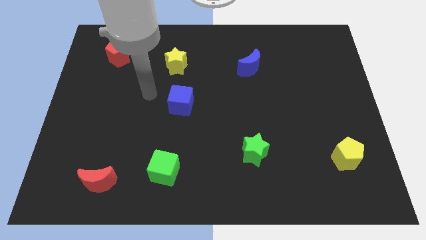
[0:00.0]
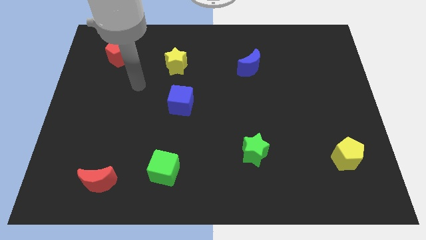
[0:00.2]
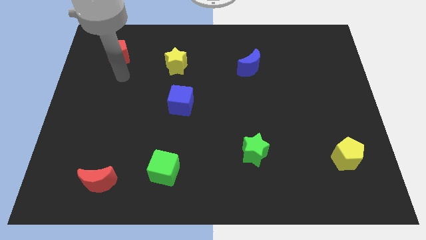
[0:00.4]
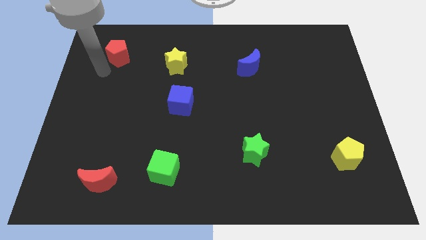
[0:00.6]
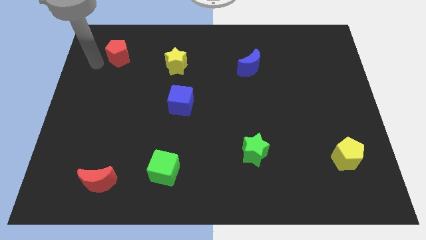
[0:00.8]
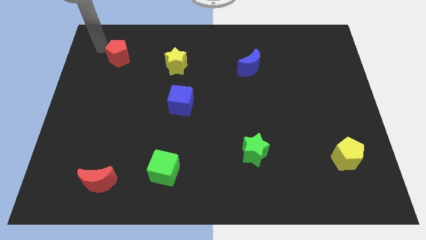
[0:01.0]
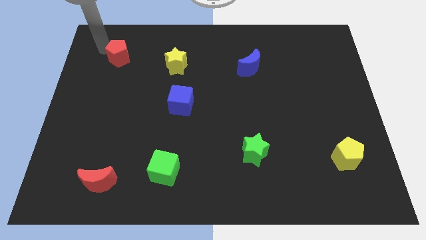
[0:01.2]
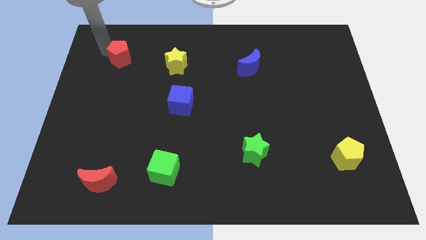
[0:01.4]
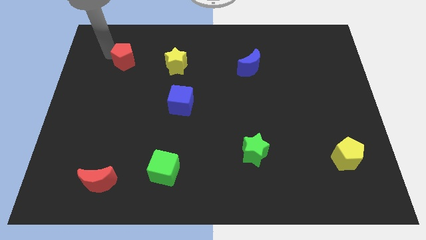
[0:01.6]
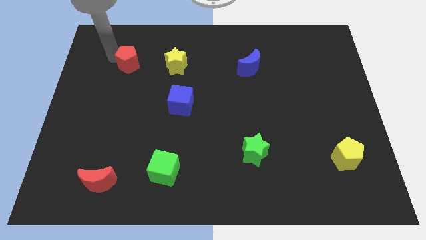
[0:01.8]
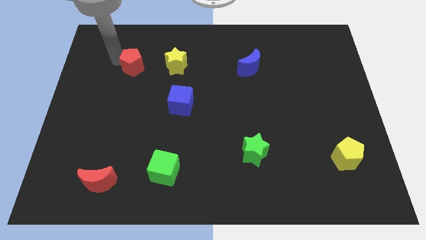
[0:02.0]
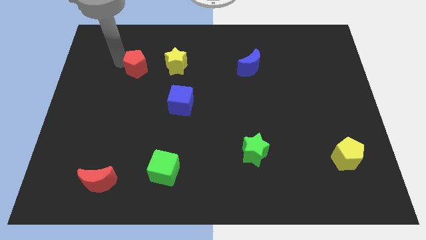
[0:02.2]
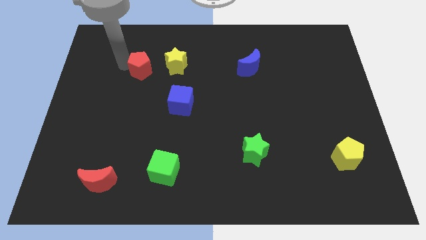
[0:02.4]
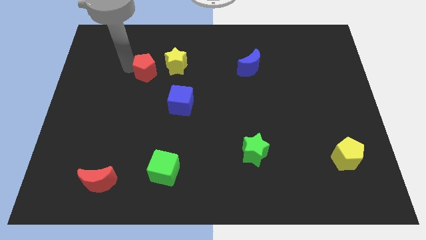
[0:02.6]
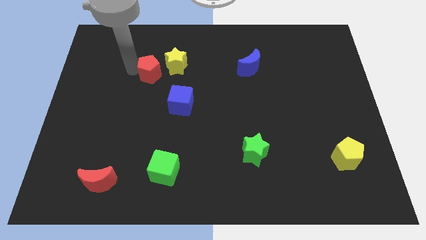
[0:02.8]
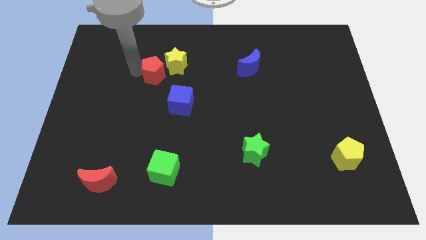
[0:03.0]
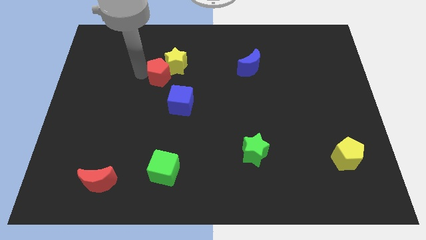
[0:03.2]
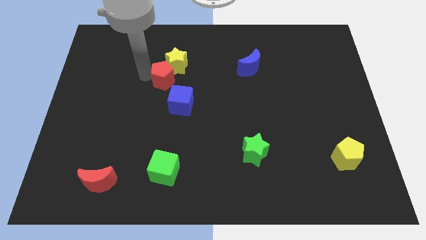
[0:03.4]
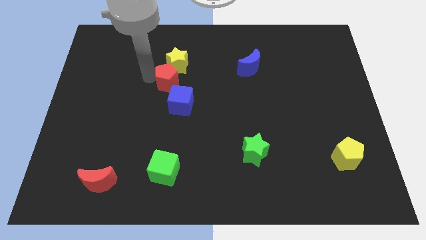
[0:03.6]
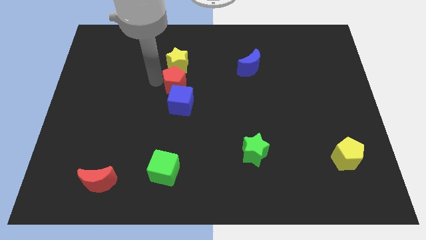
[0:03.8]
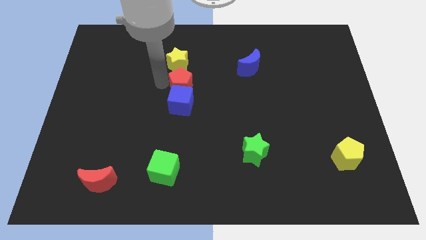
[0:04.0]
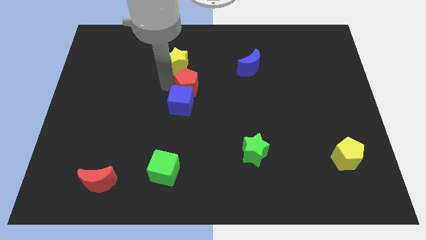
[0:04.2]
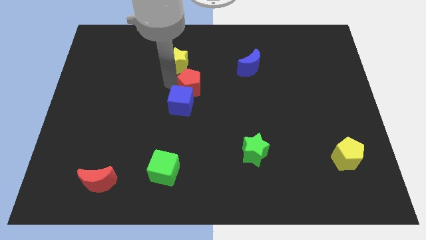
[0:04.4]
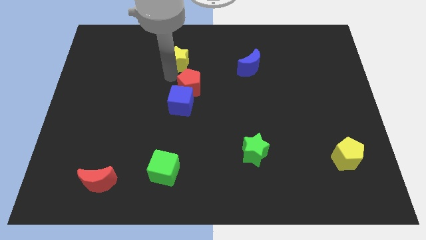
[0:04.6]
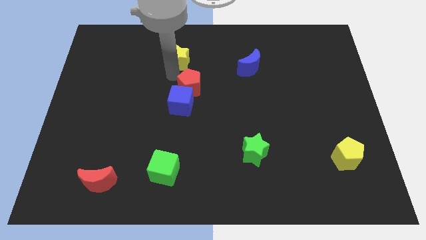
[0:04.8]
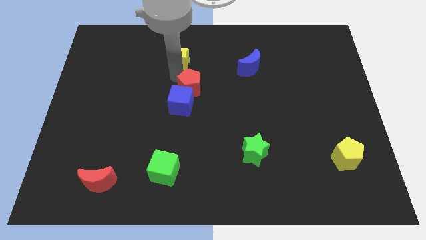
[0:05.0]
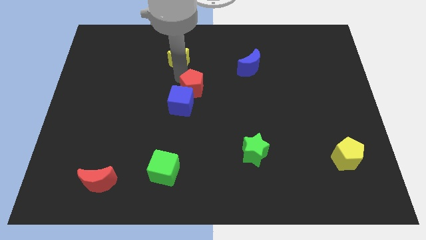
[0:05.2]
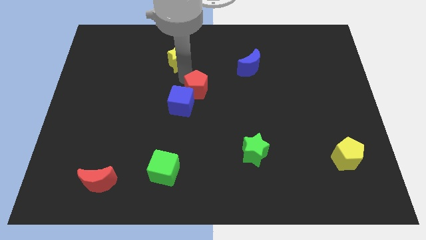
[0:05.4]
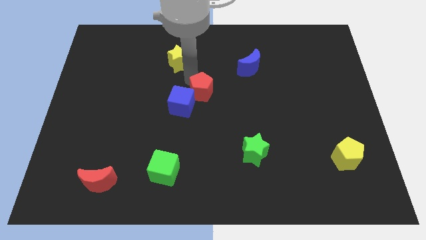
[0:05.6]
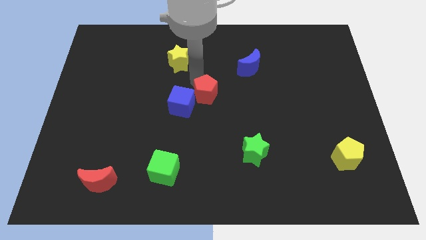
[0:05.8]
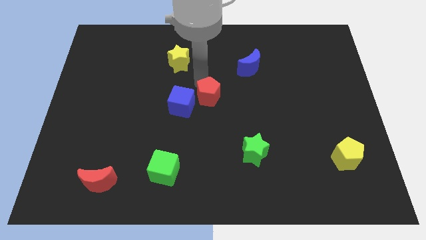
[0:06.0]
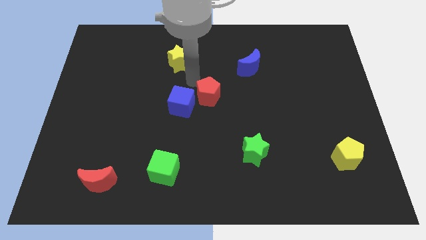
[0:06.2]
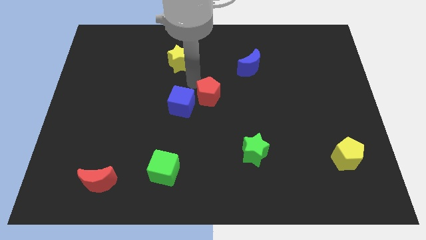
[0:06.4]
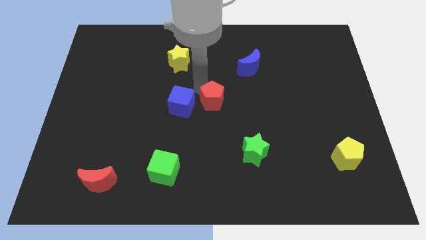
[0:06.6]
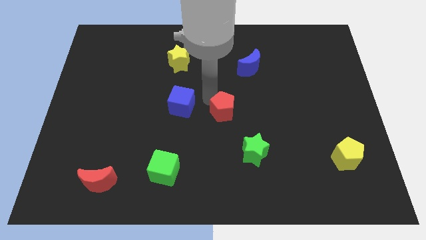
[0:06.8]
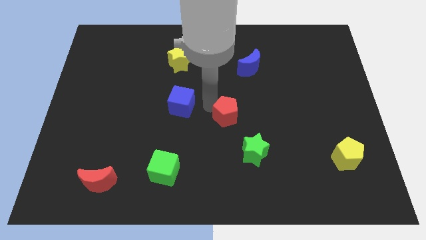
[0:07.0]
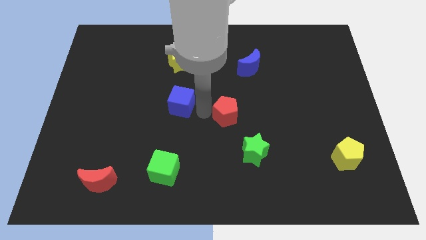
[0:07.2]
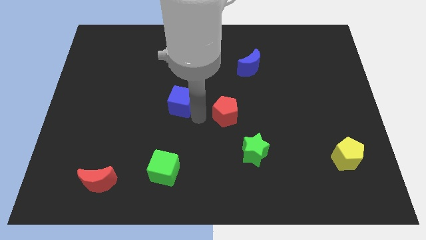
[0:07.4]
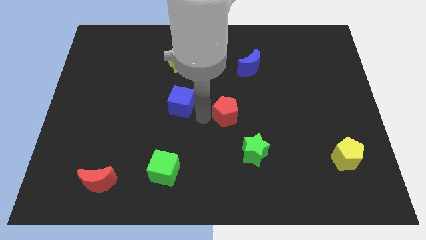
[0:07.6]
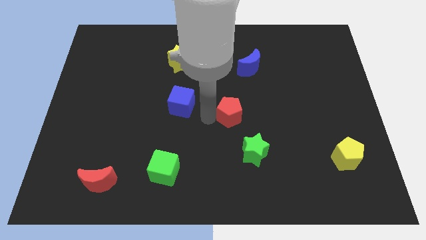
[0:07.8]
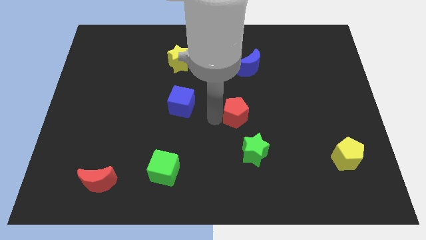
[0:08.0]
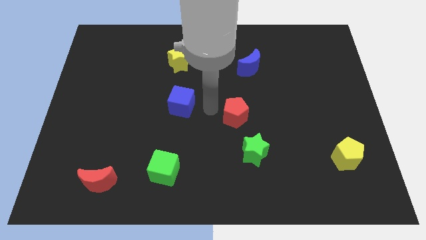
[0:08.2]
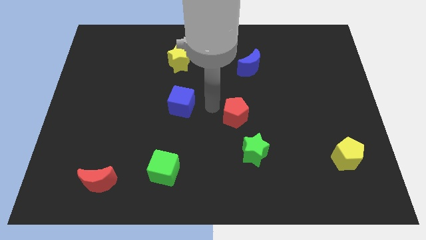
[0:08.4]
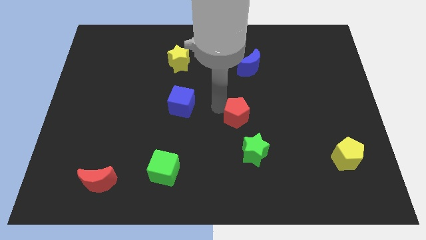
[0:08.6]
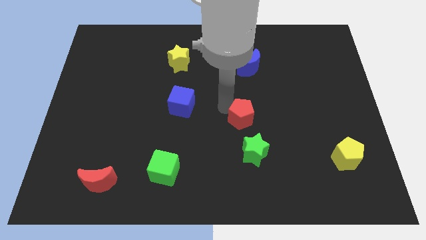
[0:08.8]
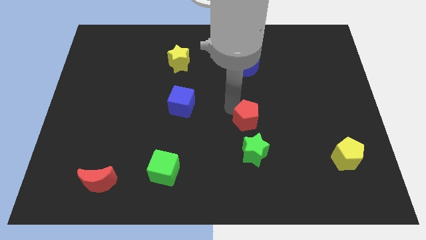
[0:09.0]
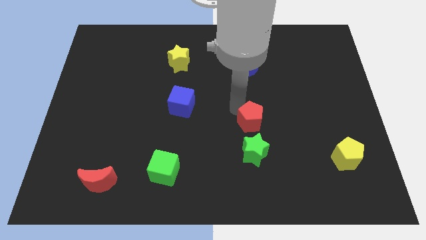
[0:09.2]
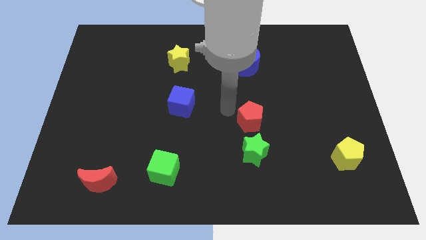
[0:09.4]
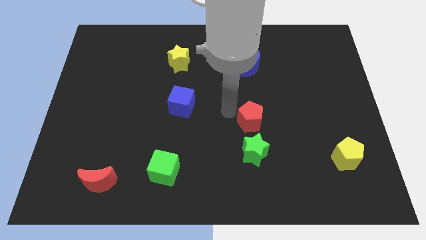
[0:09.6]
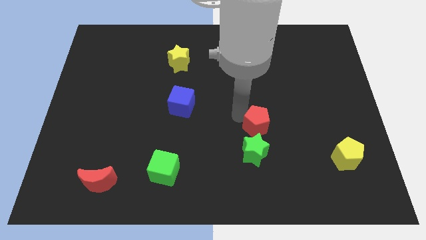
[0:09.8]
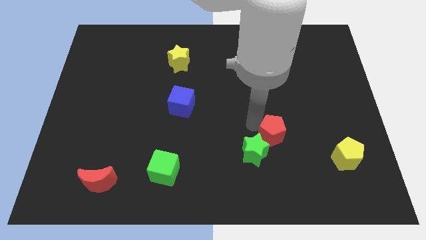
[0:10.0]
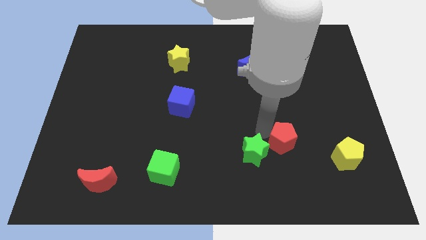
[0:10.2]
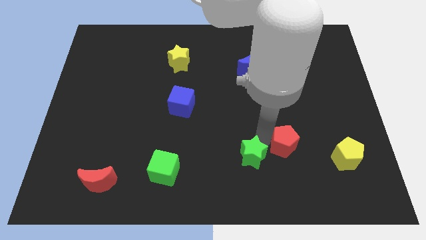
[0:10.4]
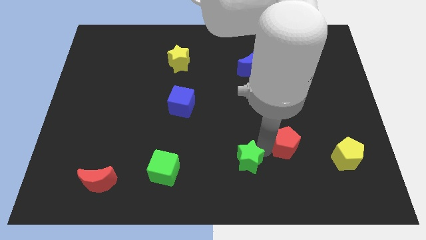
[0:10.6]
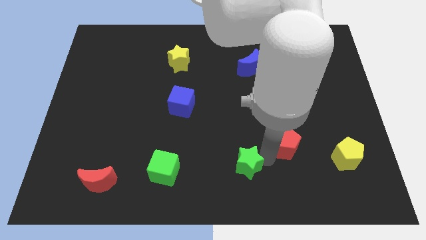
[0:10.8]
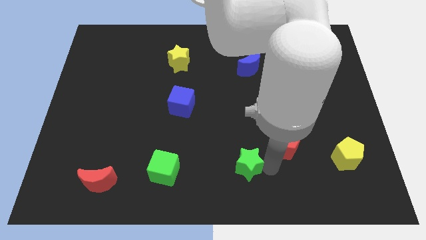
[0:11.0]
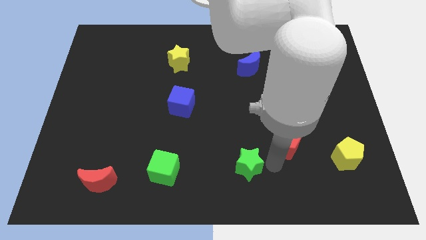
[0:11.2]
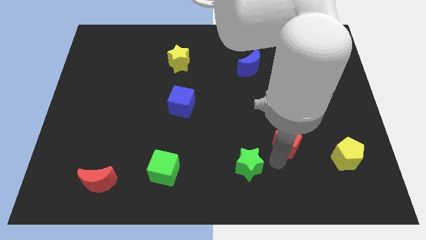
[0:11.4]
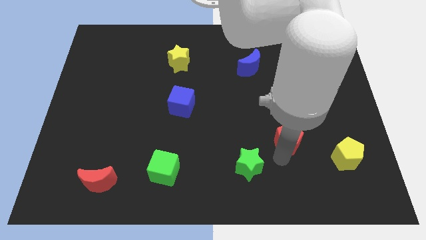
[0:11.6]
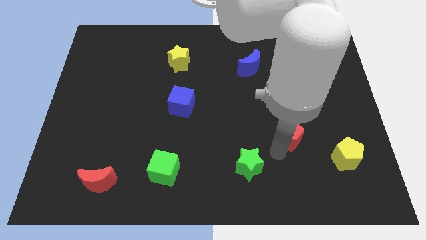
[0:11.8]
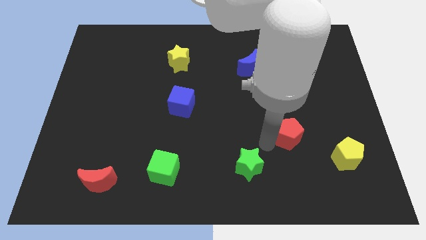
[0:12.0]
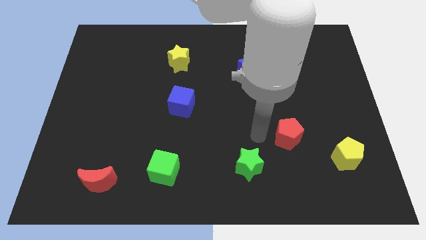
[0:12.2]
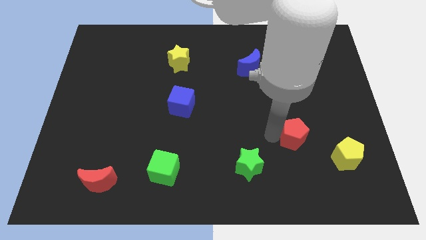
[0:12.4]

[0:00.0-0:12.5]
put the red pentagon diagonally up and to the left of the yellow pentagon

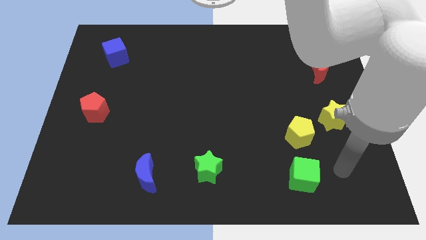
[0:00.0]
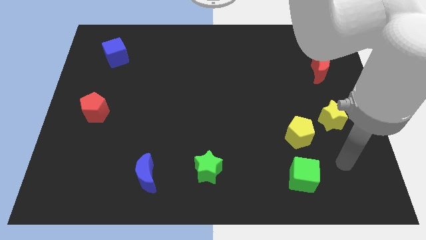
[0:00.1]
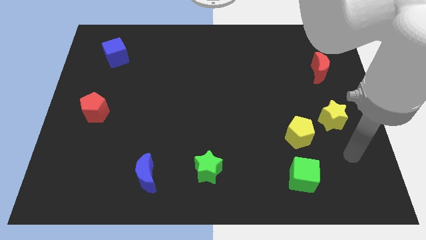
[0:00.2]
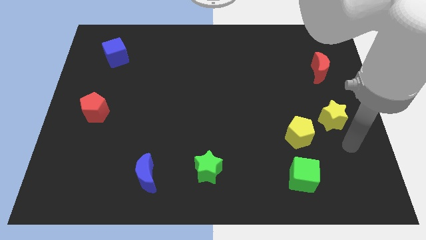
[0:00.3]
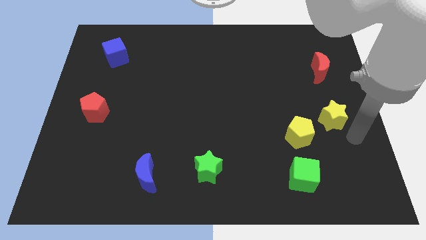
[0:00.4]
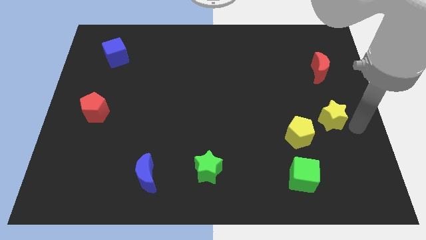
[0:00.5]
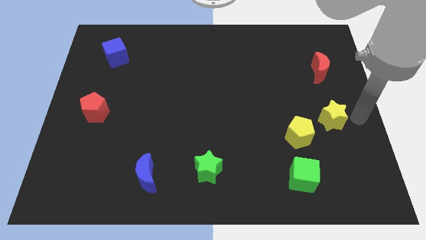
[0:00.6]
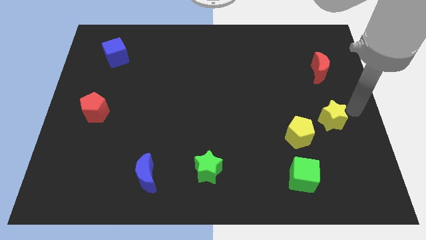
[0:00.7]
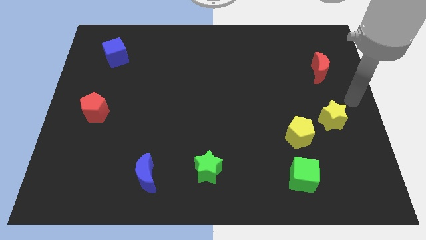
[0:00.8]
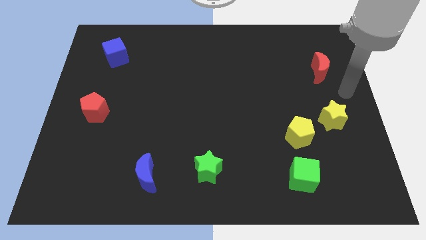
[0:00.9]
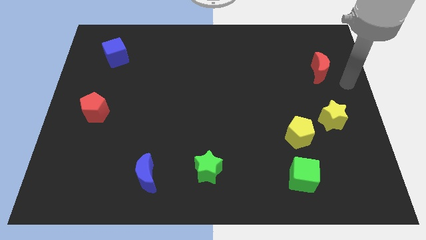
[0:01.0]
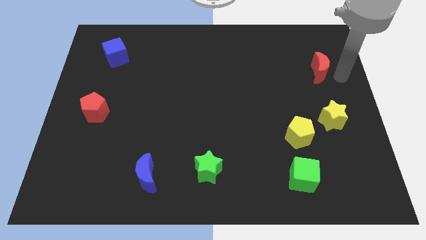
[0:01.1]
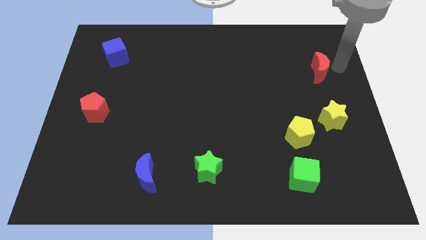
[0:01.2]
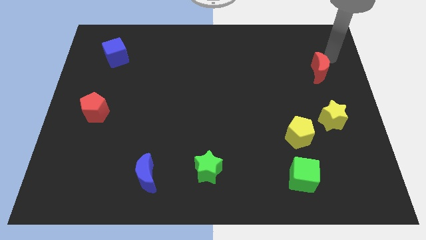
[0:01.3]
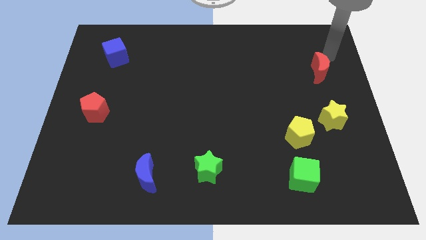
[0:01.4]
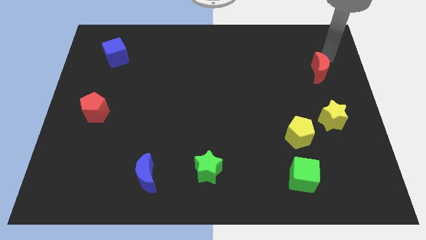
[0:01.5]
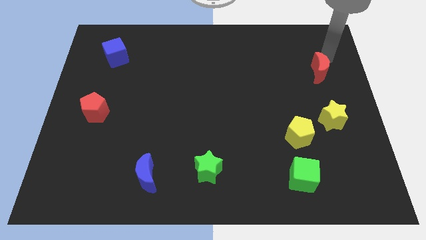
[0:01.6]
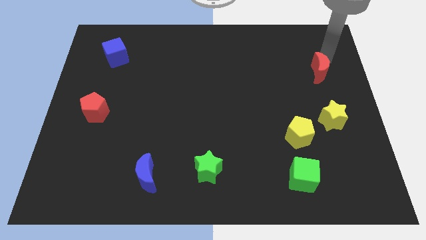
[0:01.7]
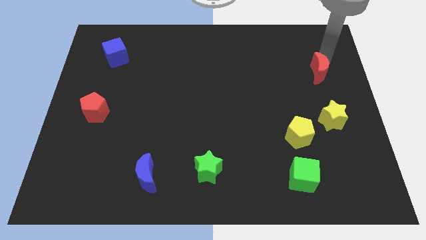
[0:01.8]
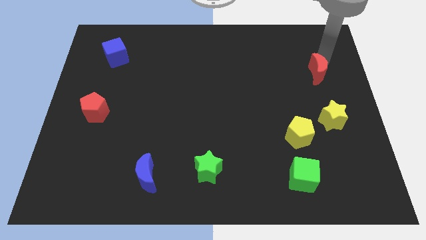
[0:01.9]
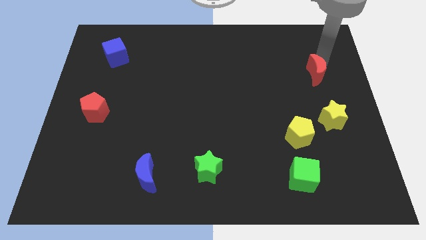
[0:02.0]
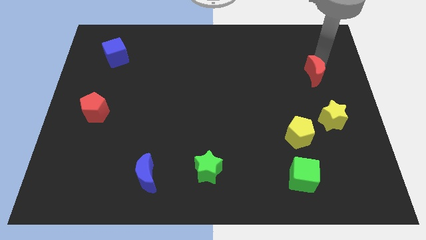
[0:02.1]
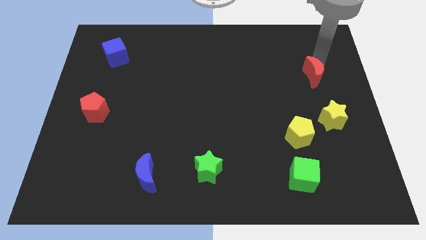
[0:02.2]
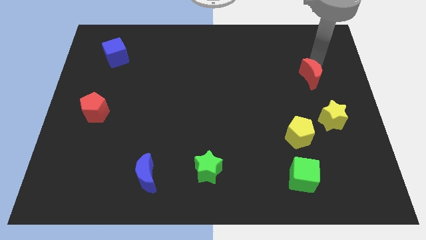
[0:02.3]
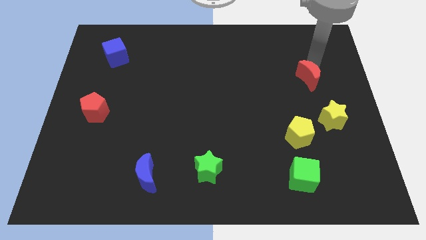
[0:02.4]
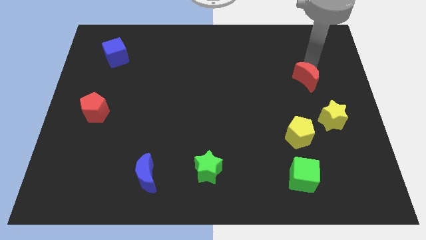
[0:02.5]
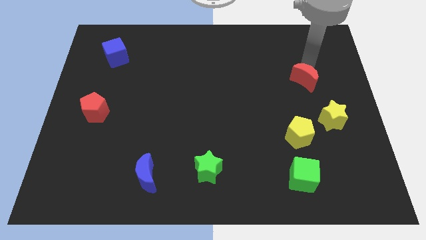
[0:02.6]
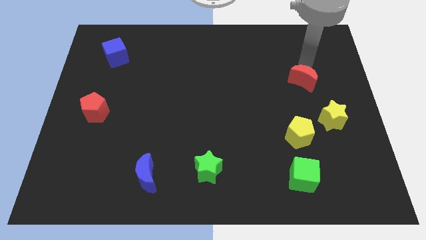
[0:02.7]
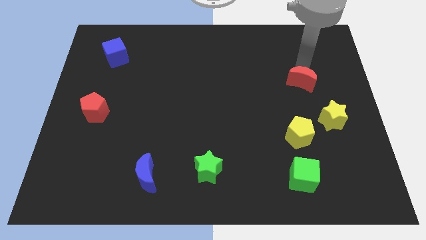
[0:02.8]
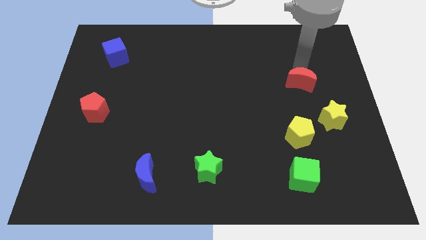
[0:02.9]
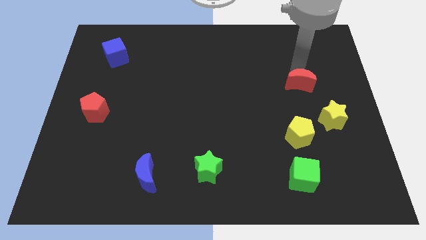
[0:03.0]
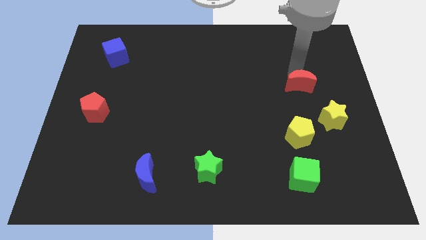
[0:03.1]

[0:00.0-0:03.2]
put the red moon diagonally up and to the left of the yellow star
